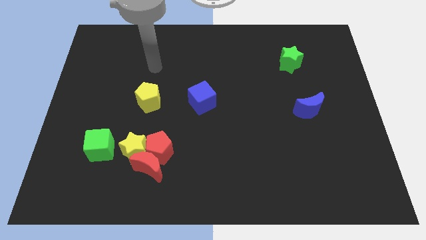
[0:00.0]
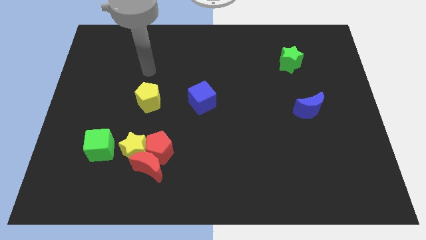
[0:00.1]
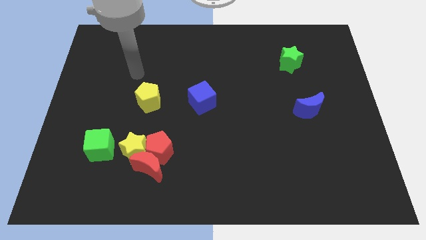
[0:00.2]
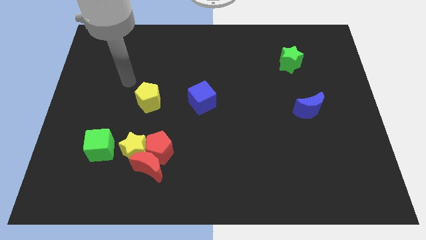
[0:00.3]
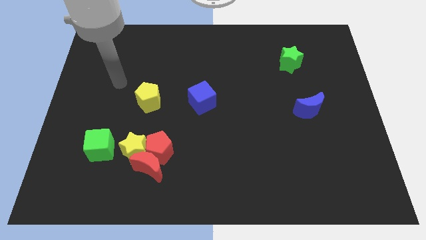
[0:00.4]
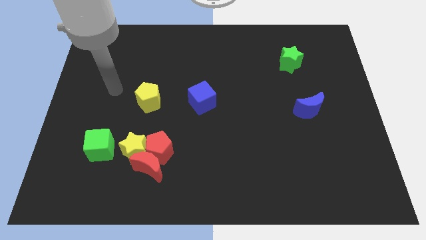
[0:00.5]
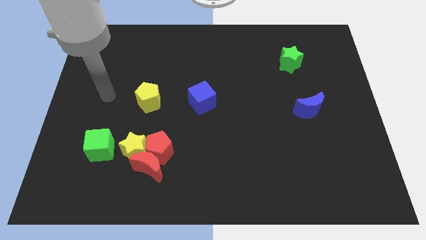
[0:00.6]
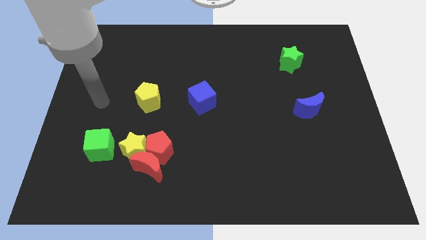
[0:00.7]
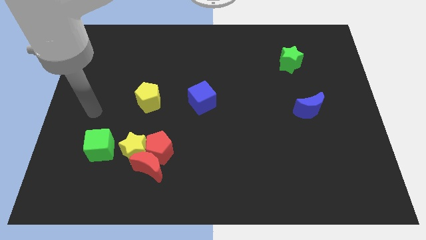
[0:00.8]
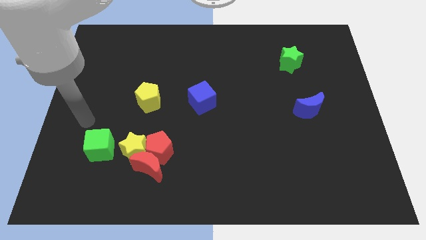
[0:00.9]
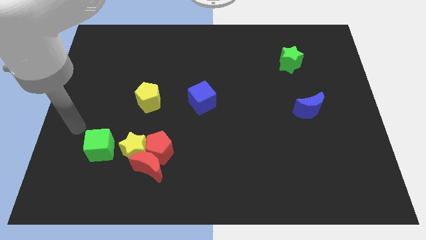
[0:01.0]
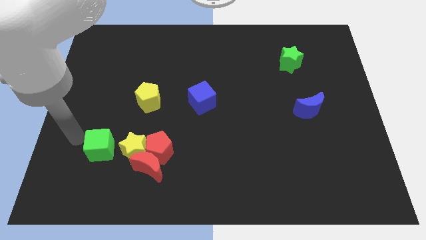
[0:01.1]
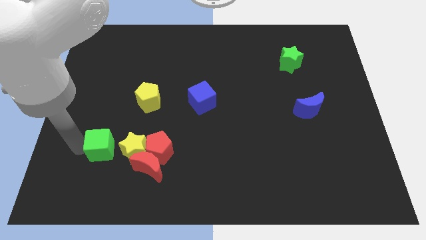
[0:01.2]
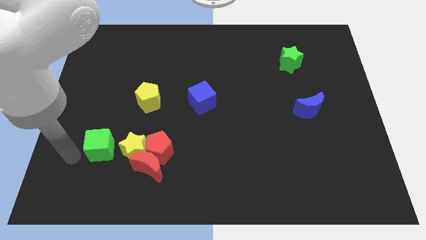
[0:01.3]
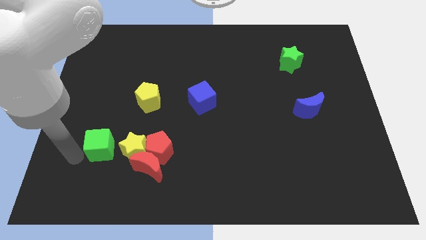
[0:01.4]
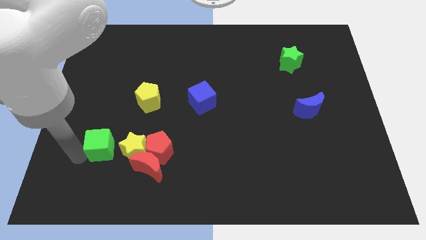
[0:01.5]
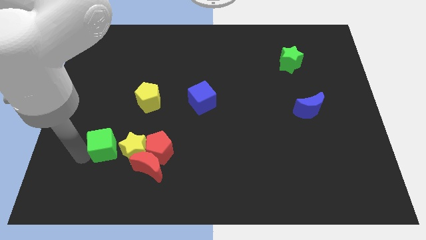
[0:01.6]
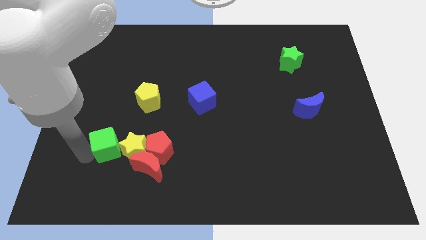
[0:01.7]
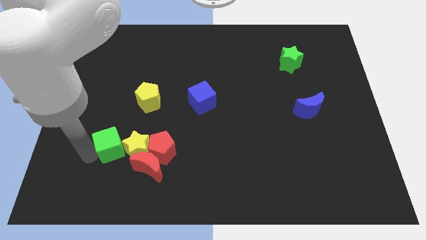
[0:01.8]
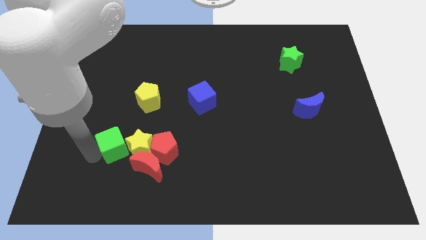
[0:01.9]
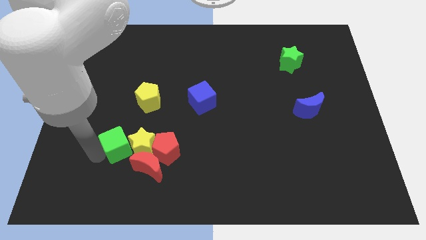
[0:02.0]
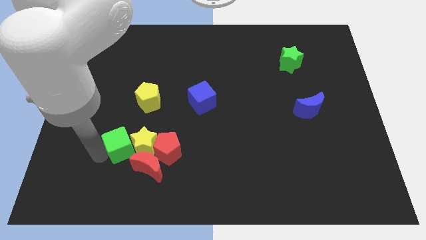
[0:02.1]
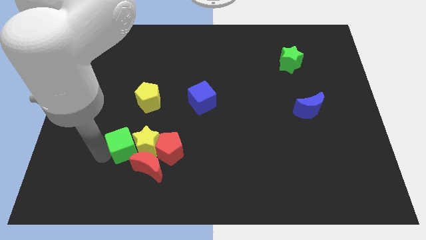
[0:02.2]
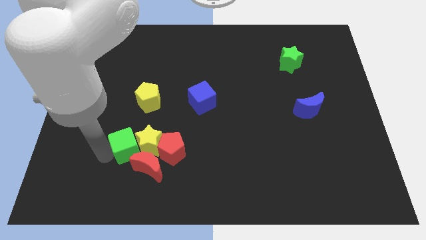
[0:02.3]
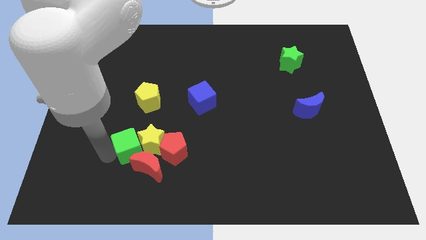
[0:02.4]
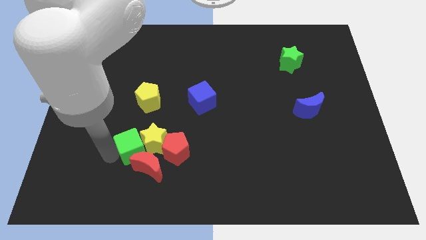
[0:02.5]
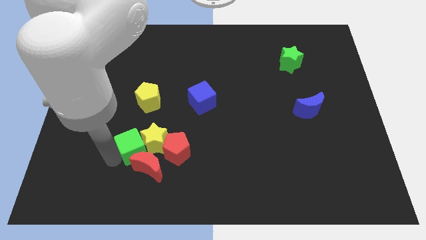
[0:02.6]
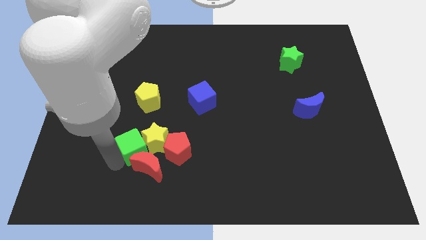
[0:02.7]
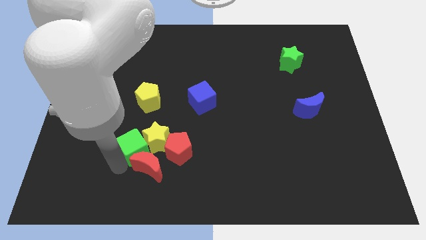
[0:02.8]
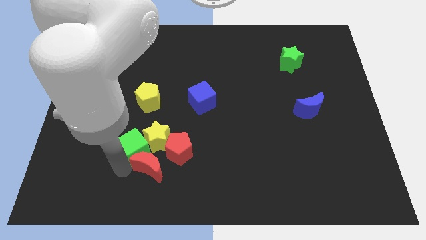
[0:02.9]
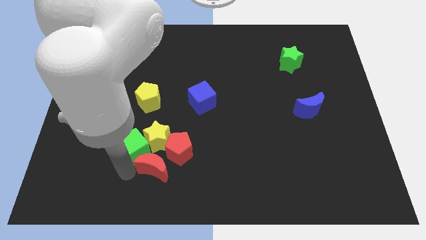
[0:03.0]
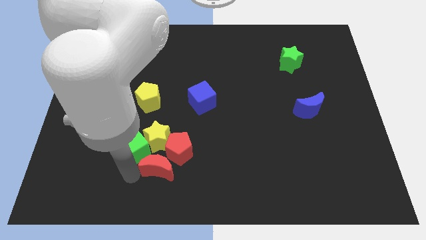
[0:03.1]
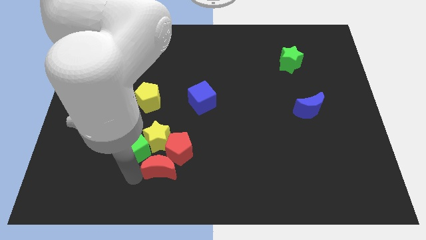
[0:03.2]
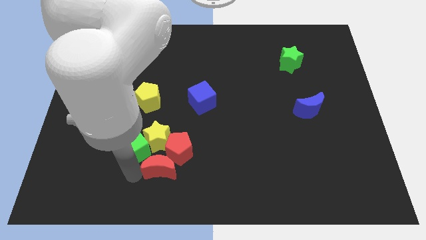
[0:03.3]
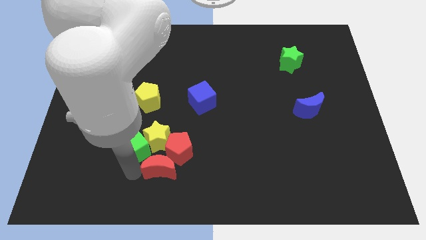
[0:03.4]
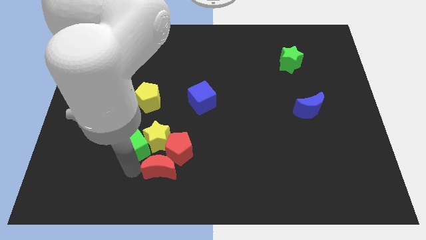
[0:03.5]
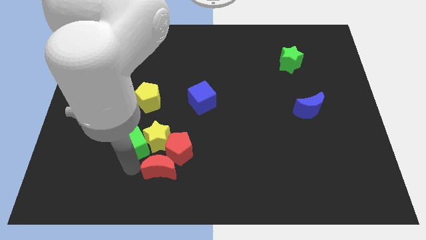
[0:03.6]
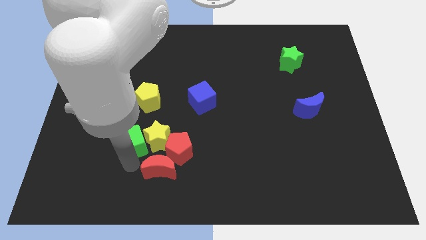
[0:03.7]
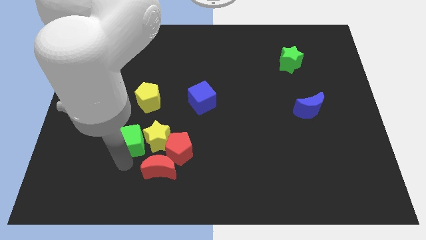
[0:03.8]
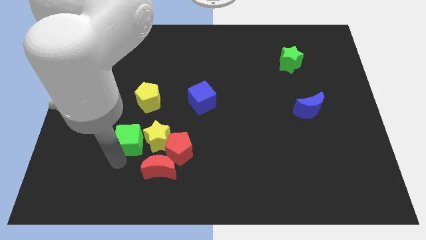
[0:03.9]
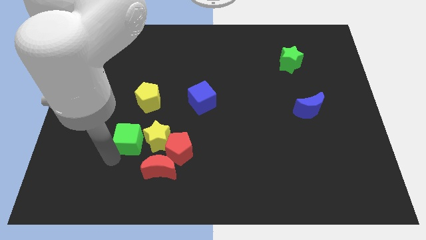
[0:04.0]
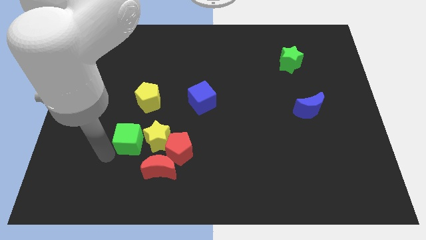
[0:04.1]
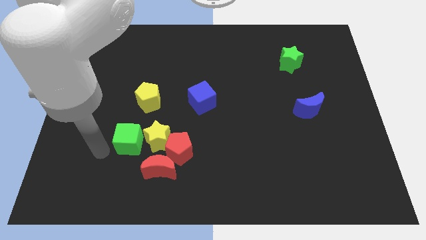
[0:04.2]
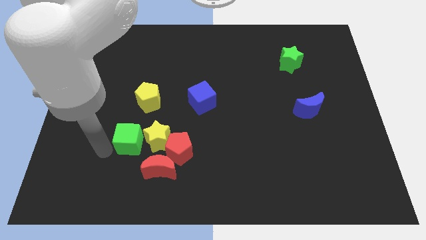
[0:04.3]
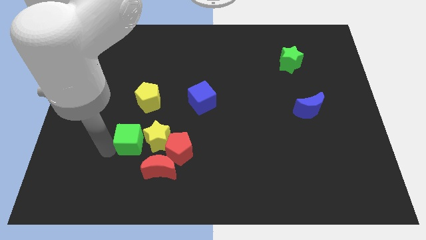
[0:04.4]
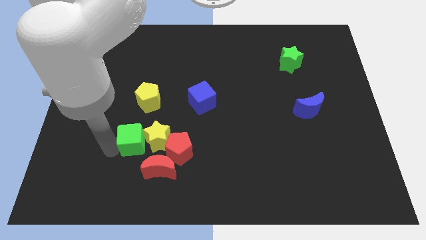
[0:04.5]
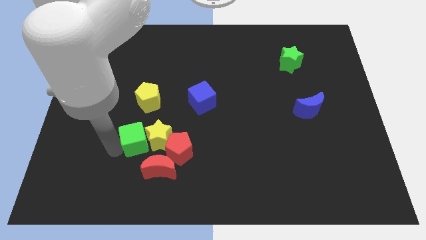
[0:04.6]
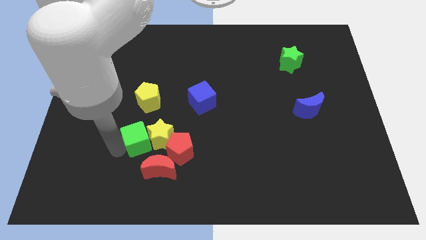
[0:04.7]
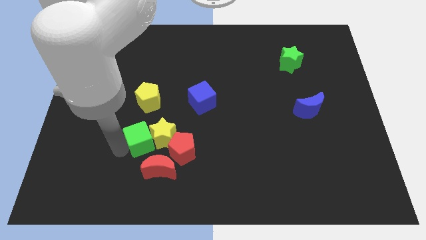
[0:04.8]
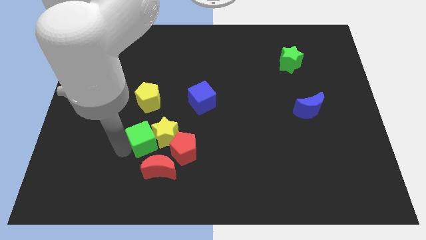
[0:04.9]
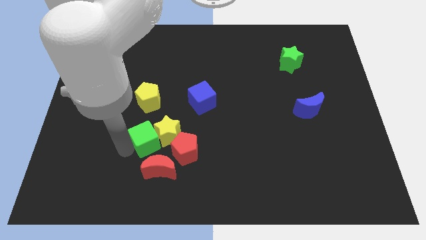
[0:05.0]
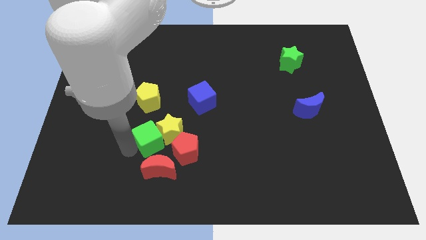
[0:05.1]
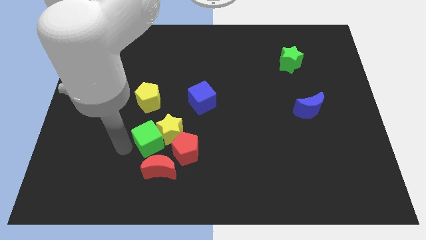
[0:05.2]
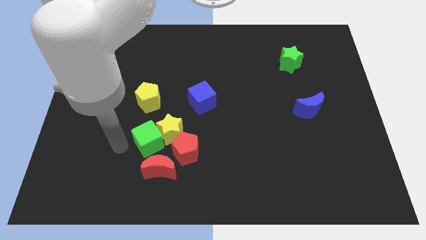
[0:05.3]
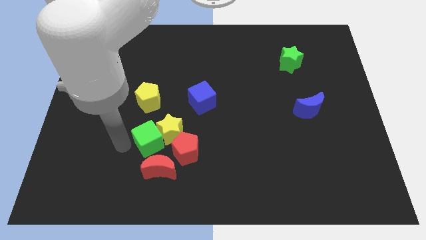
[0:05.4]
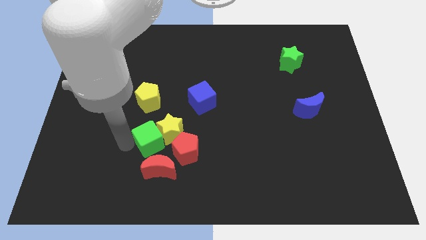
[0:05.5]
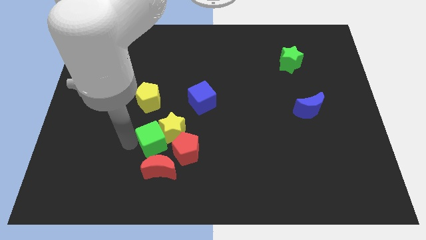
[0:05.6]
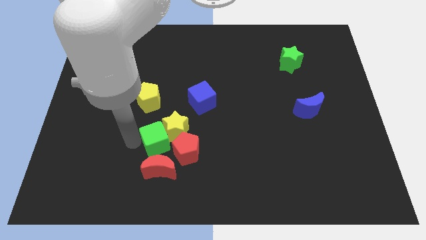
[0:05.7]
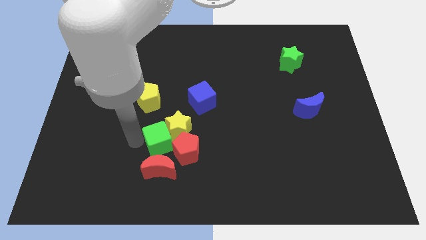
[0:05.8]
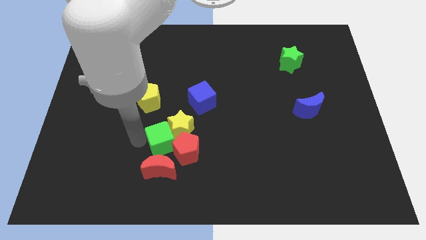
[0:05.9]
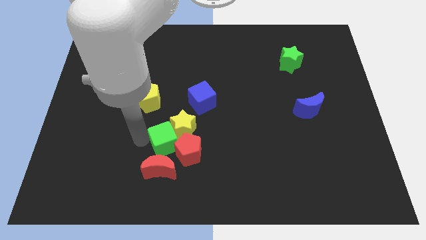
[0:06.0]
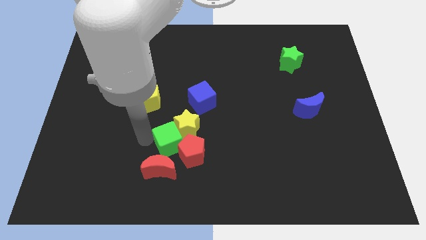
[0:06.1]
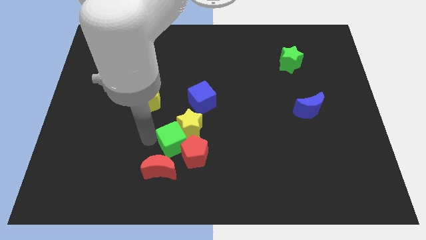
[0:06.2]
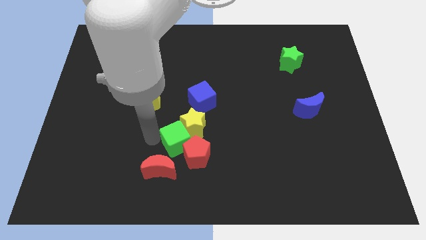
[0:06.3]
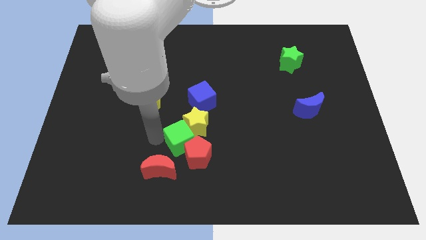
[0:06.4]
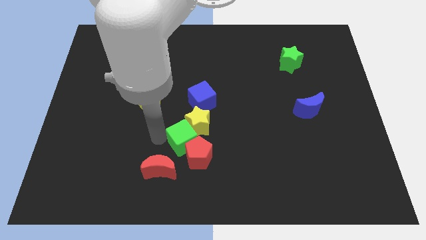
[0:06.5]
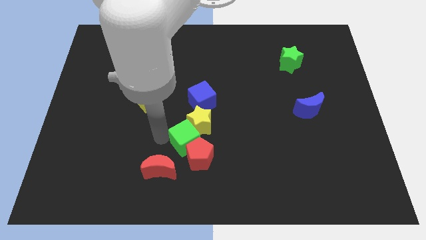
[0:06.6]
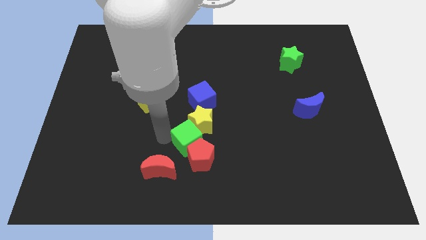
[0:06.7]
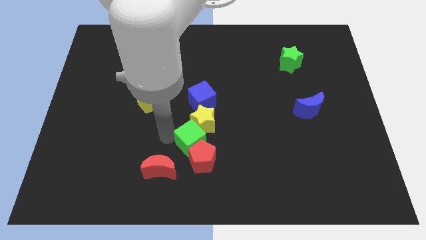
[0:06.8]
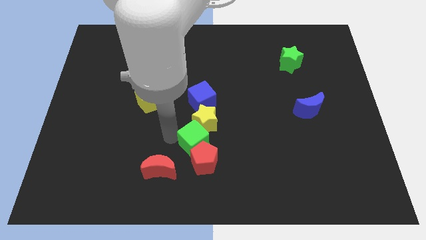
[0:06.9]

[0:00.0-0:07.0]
move the green cube to the right

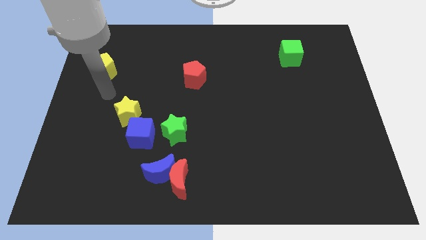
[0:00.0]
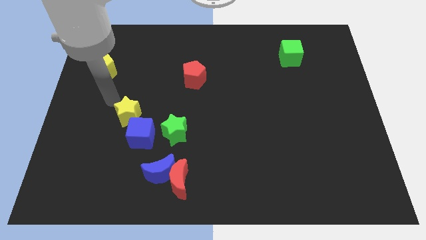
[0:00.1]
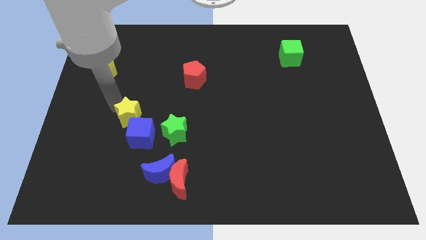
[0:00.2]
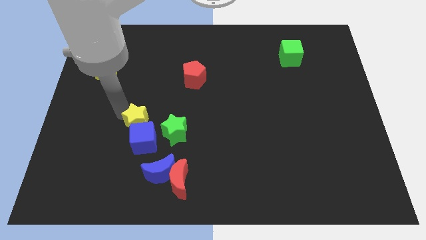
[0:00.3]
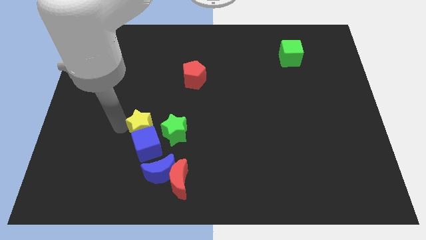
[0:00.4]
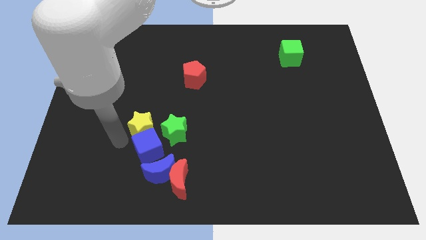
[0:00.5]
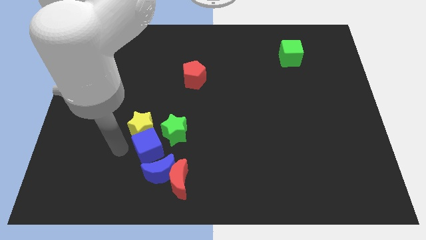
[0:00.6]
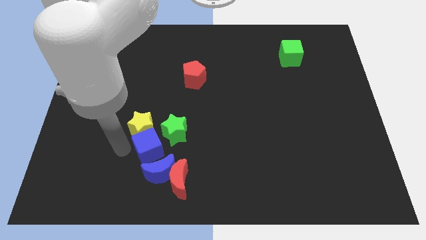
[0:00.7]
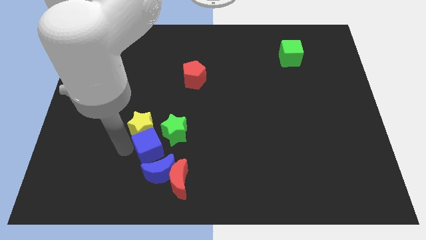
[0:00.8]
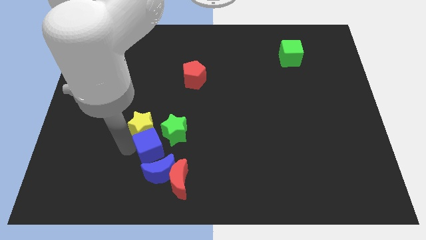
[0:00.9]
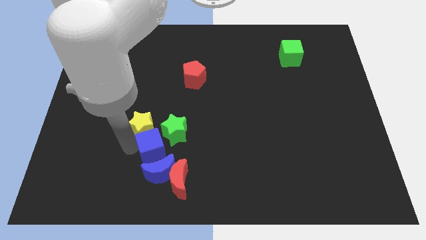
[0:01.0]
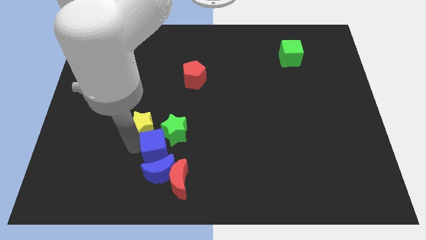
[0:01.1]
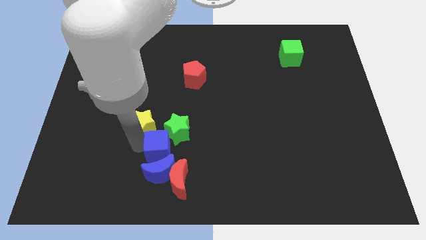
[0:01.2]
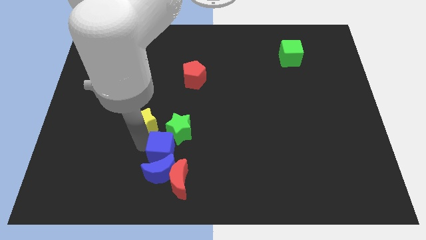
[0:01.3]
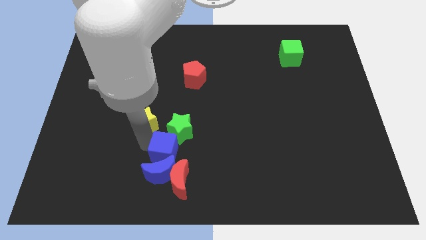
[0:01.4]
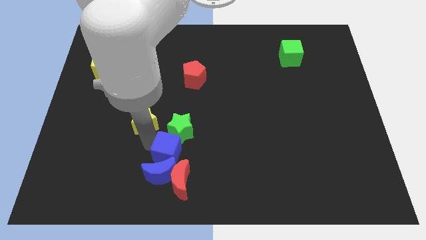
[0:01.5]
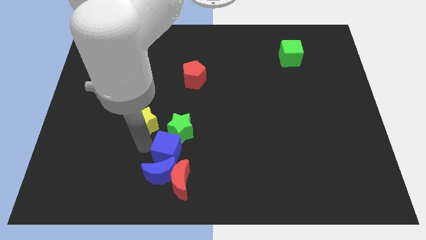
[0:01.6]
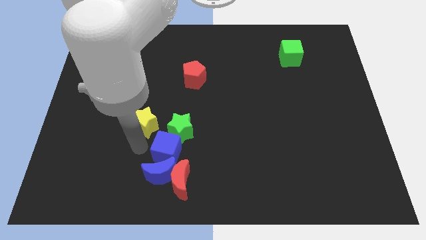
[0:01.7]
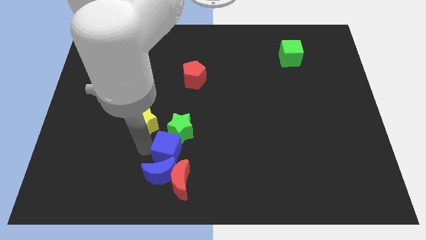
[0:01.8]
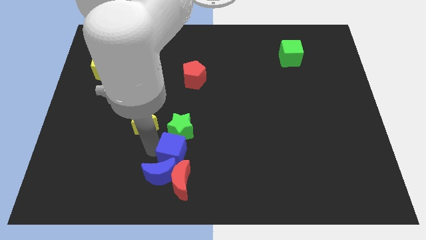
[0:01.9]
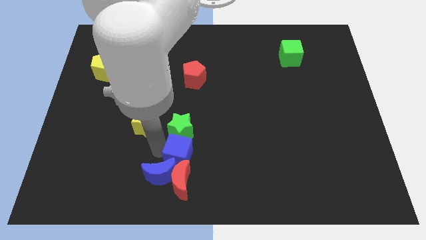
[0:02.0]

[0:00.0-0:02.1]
slightly push the blue cube to the right
